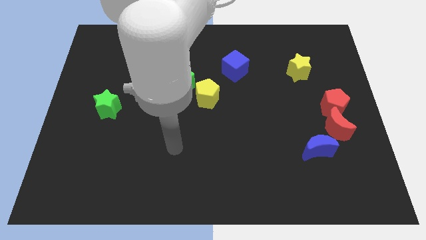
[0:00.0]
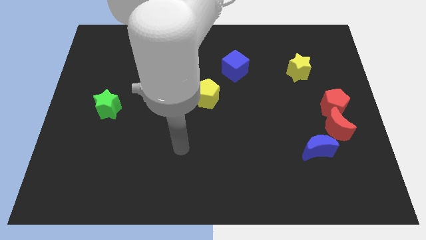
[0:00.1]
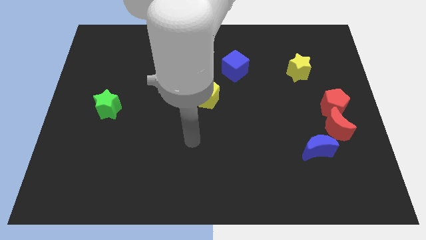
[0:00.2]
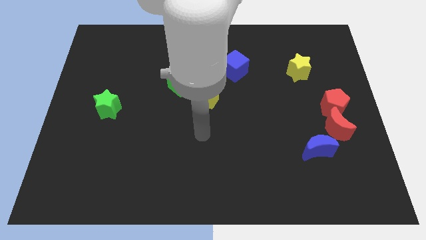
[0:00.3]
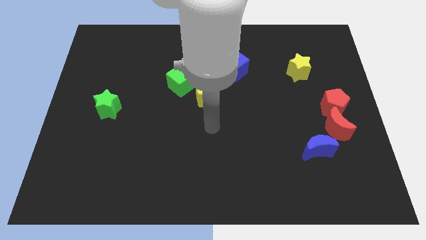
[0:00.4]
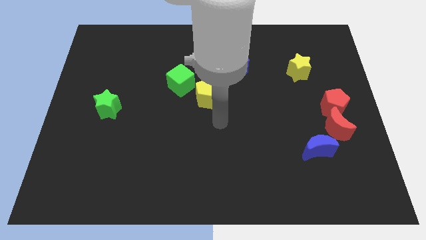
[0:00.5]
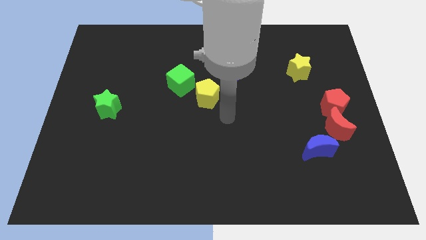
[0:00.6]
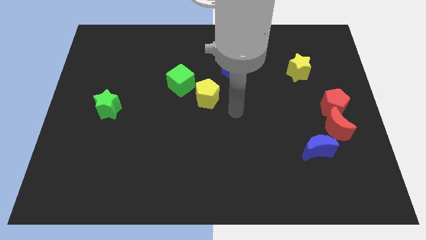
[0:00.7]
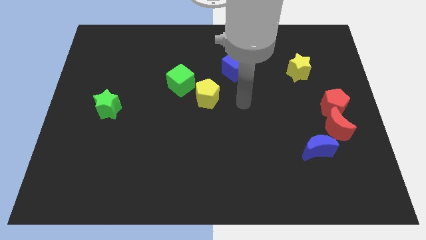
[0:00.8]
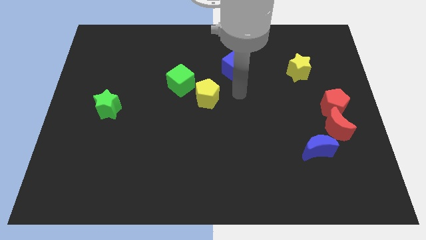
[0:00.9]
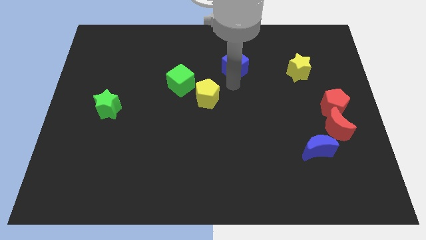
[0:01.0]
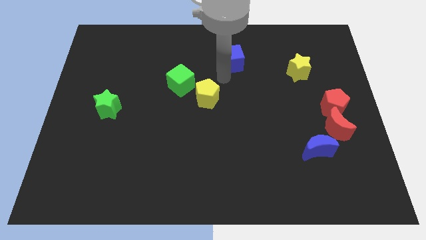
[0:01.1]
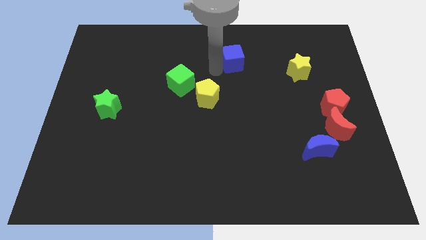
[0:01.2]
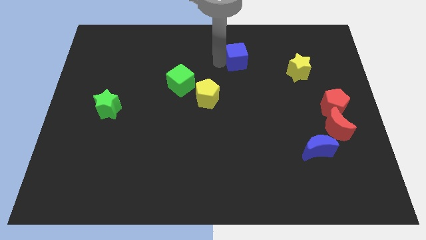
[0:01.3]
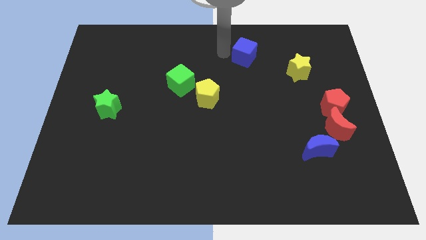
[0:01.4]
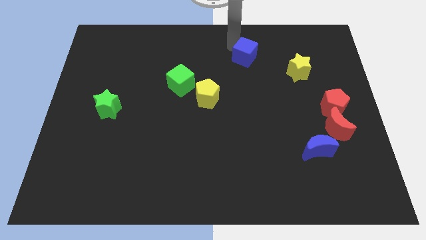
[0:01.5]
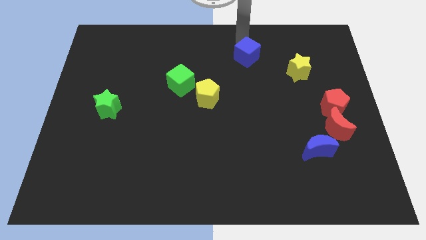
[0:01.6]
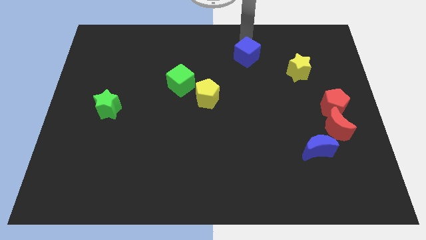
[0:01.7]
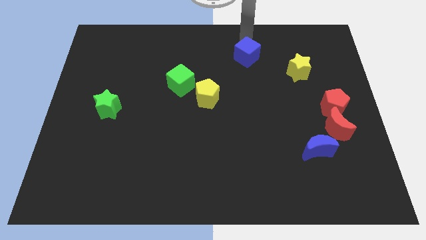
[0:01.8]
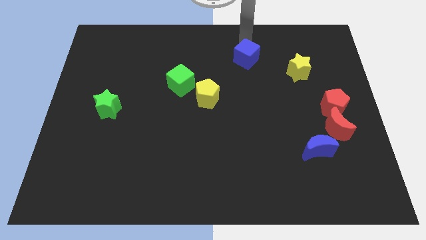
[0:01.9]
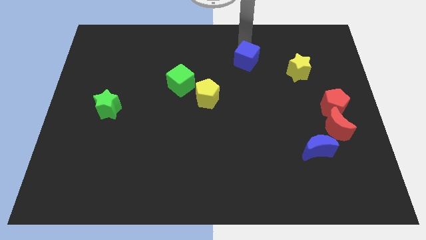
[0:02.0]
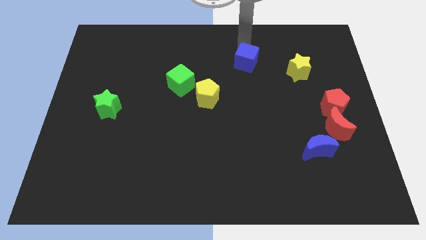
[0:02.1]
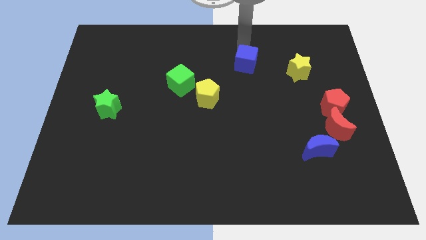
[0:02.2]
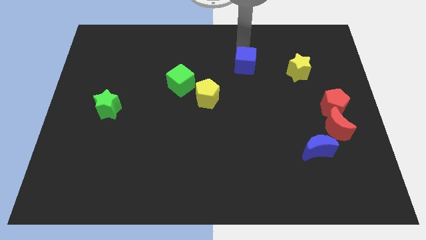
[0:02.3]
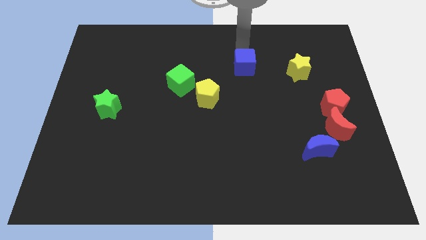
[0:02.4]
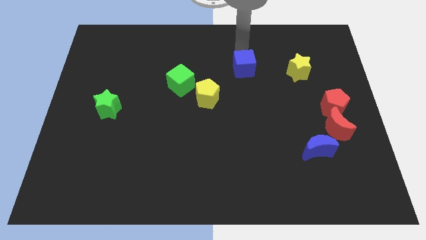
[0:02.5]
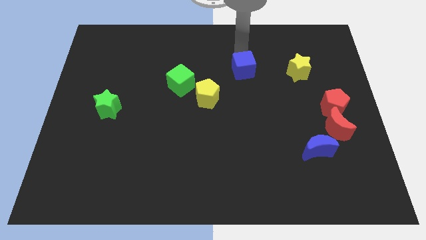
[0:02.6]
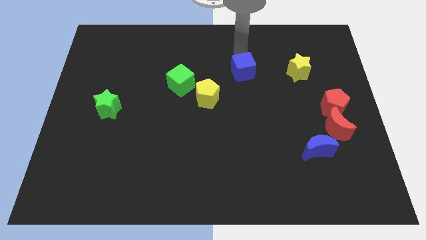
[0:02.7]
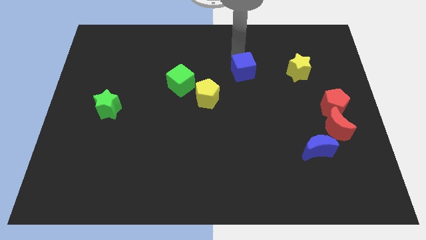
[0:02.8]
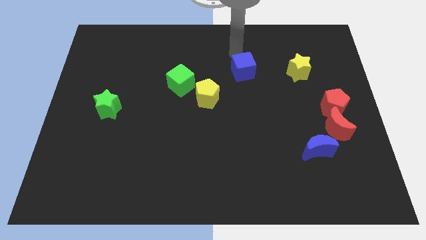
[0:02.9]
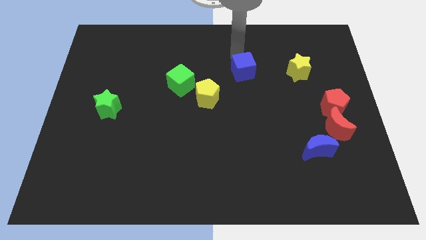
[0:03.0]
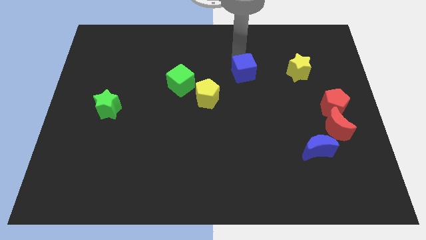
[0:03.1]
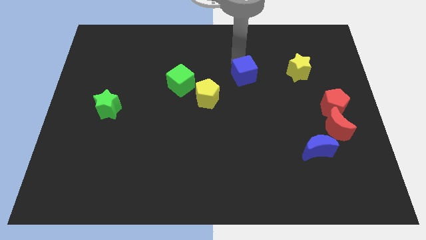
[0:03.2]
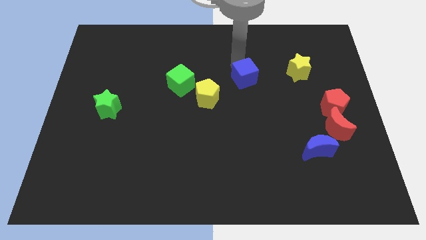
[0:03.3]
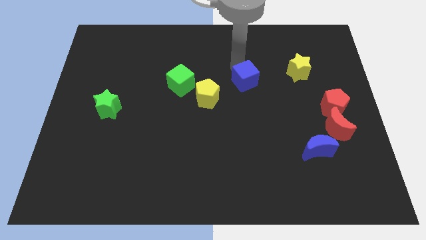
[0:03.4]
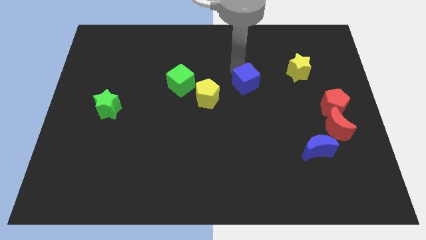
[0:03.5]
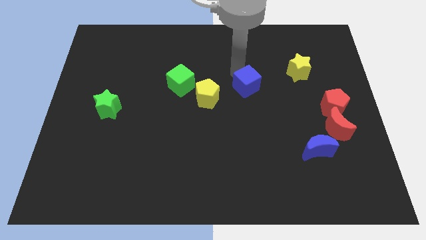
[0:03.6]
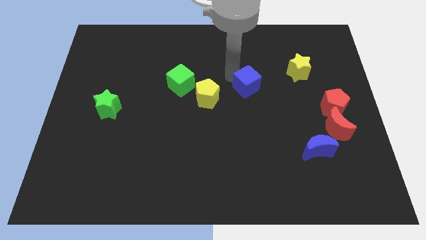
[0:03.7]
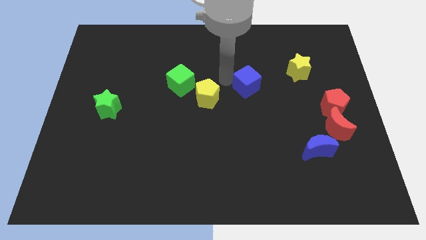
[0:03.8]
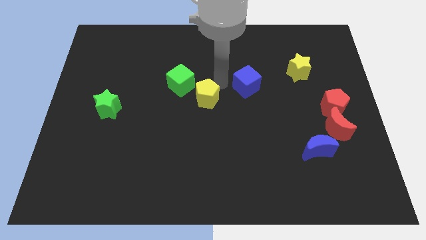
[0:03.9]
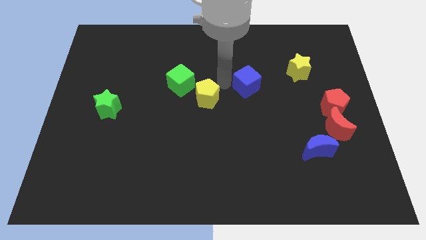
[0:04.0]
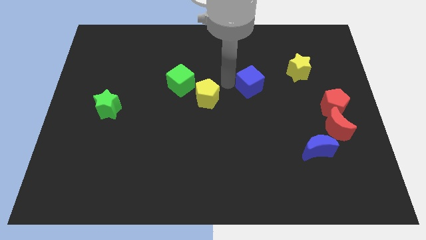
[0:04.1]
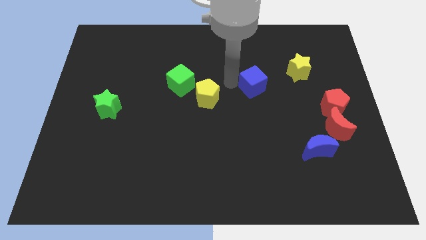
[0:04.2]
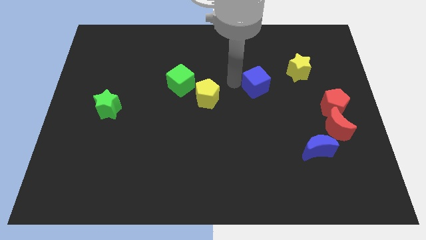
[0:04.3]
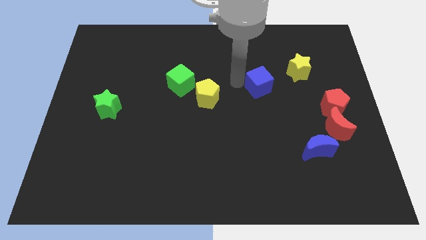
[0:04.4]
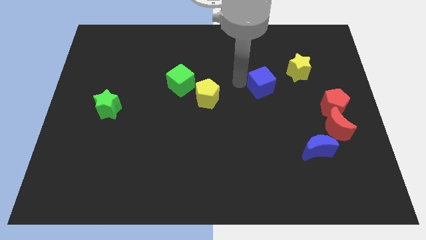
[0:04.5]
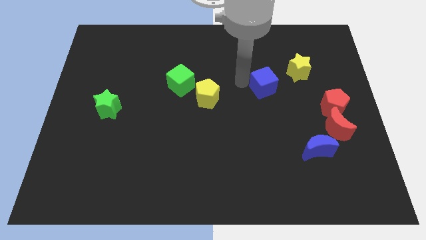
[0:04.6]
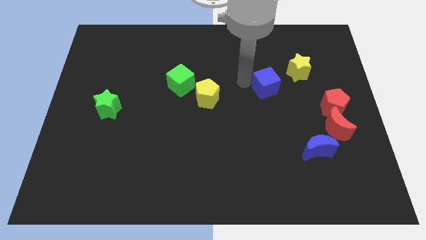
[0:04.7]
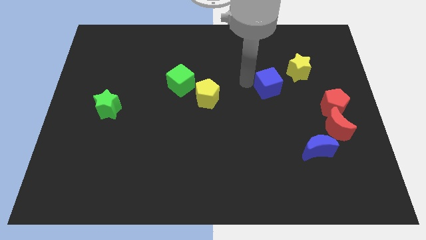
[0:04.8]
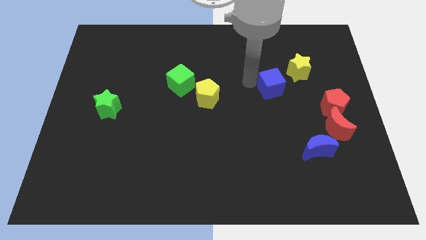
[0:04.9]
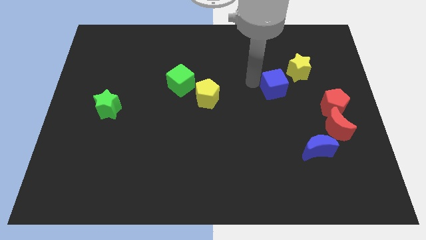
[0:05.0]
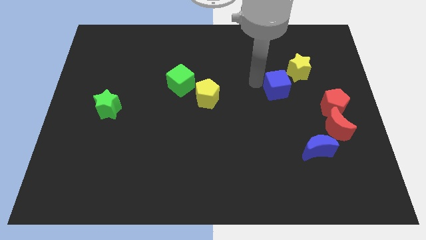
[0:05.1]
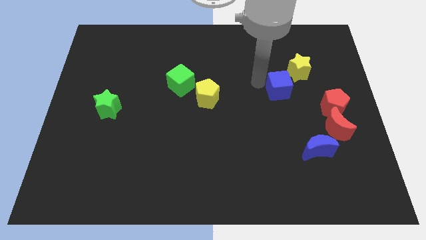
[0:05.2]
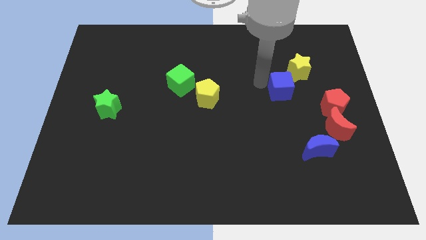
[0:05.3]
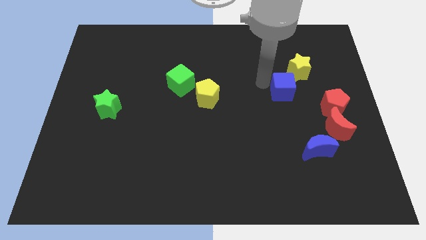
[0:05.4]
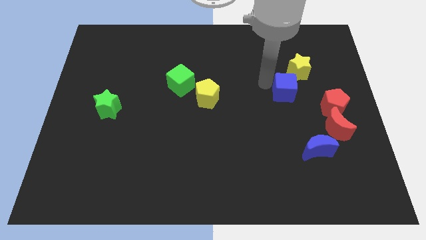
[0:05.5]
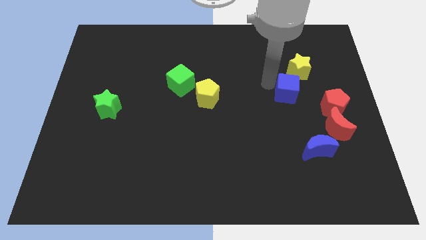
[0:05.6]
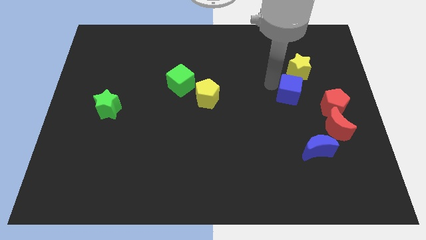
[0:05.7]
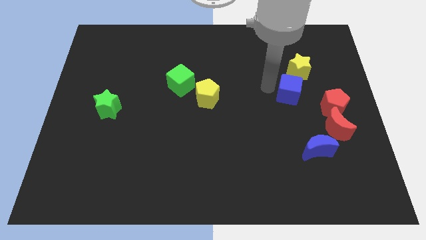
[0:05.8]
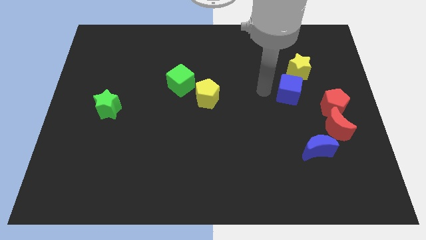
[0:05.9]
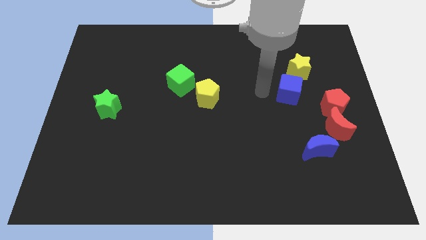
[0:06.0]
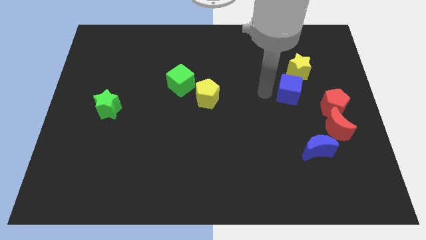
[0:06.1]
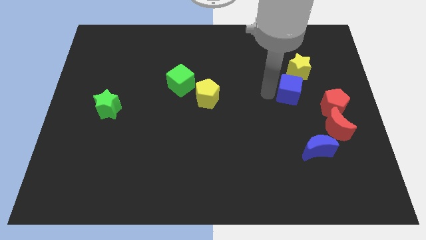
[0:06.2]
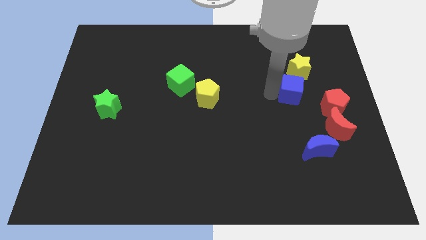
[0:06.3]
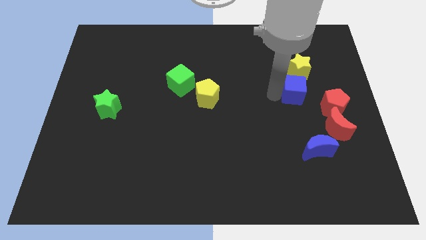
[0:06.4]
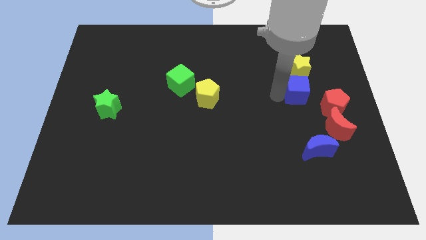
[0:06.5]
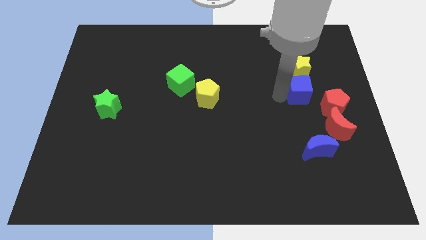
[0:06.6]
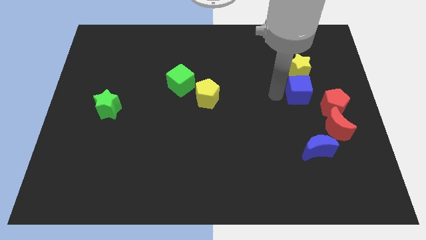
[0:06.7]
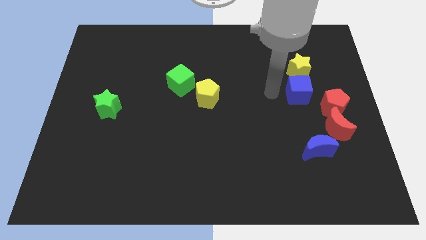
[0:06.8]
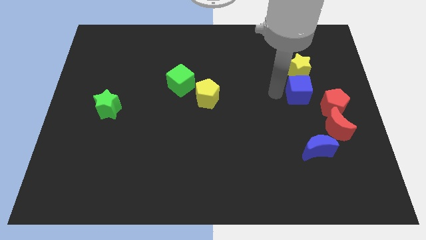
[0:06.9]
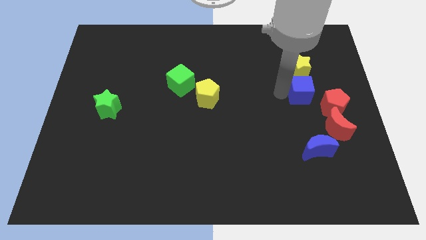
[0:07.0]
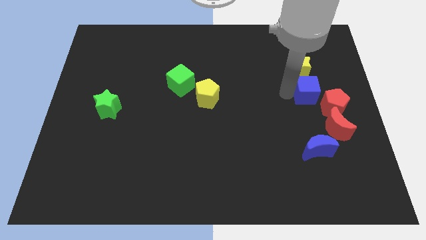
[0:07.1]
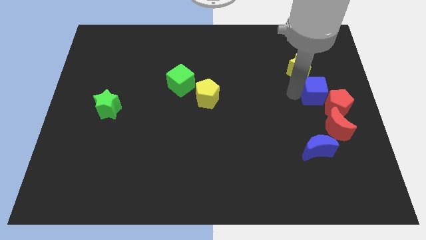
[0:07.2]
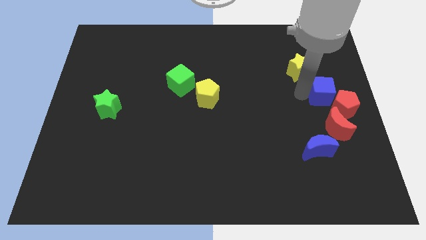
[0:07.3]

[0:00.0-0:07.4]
move the blue cube to the right side of the board
